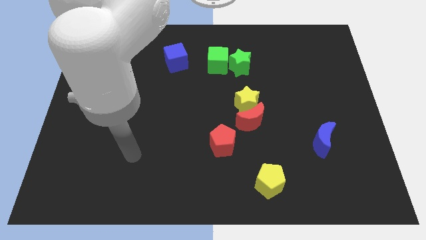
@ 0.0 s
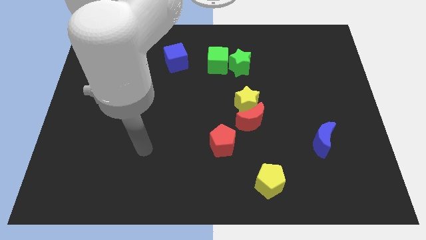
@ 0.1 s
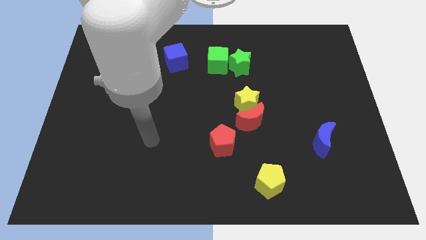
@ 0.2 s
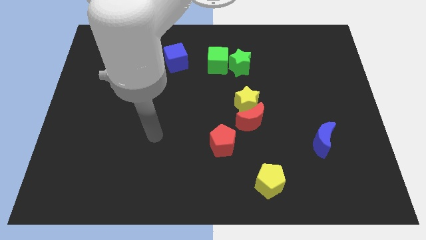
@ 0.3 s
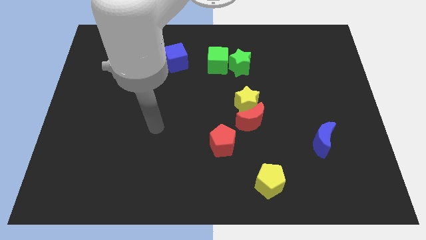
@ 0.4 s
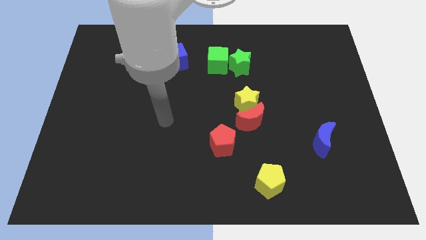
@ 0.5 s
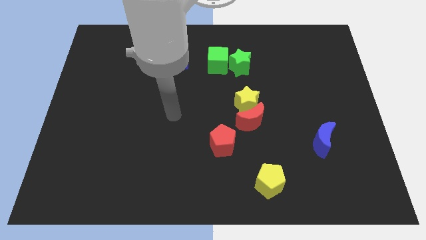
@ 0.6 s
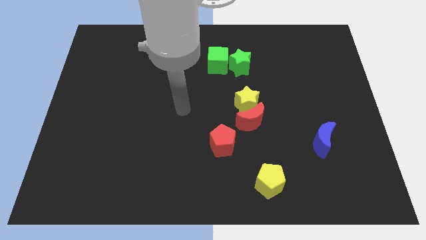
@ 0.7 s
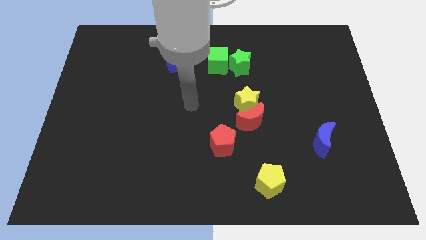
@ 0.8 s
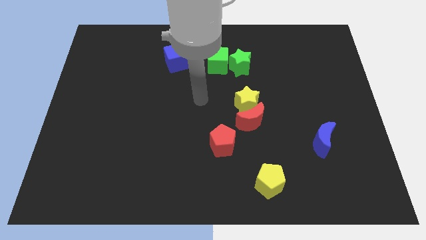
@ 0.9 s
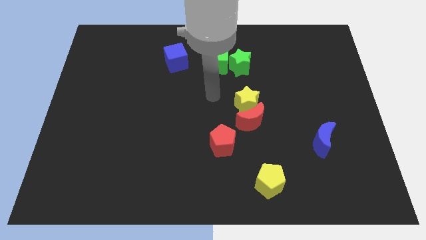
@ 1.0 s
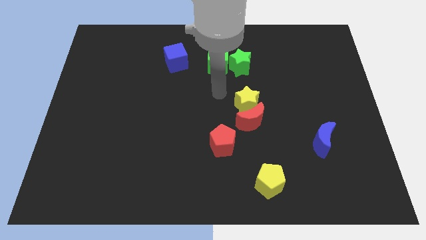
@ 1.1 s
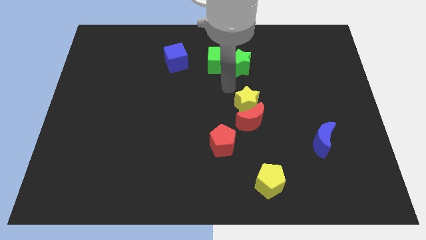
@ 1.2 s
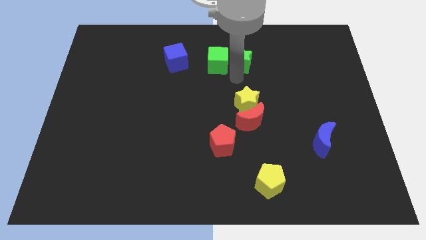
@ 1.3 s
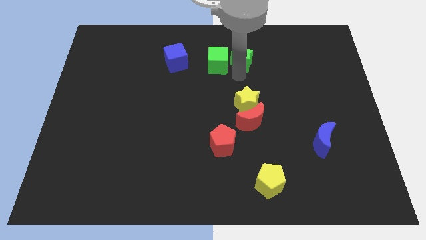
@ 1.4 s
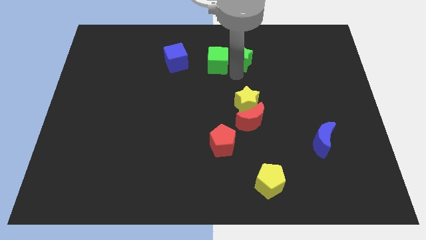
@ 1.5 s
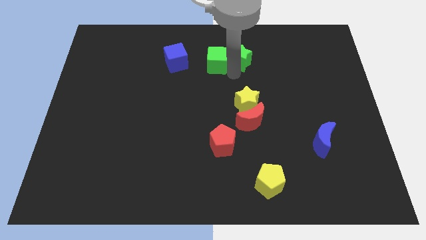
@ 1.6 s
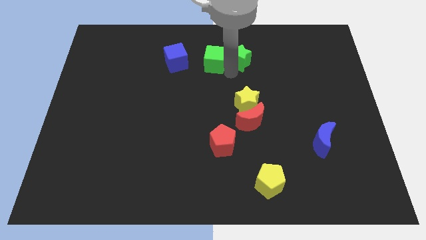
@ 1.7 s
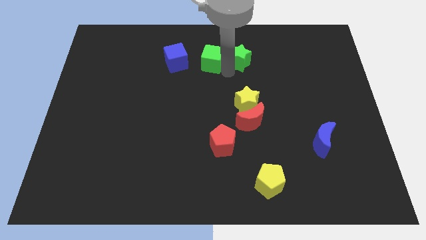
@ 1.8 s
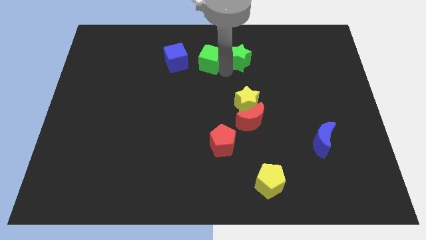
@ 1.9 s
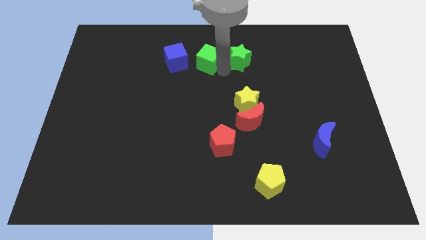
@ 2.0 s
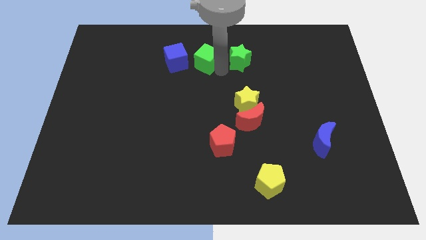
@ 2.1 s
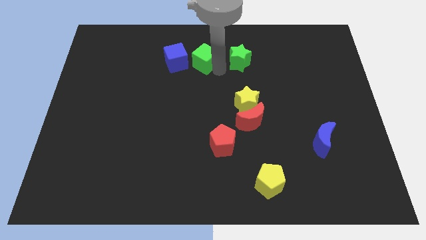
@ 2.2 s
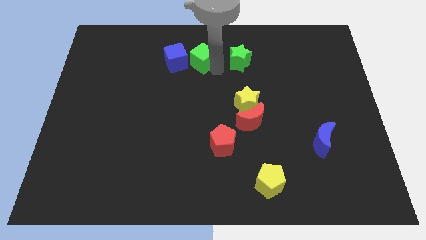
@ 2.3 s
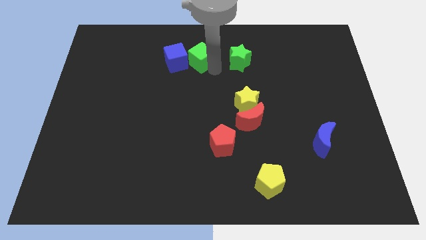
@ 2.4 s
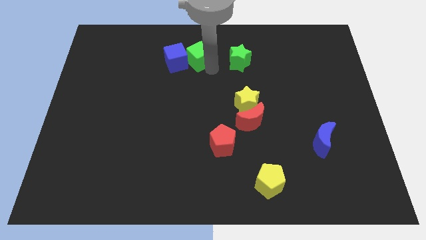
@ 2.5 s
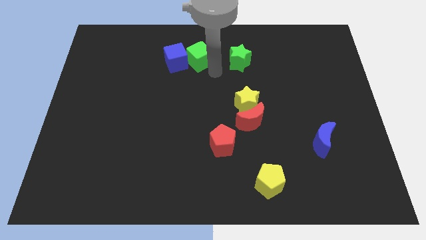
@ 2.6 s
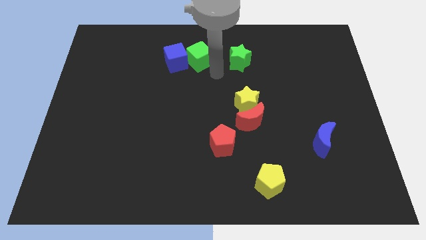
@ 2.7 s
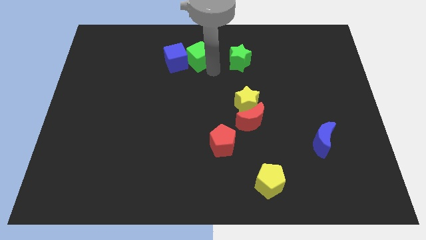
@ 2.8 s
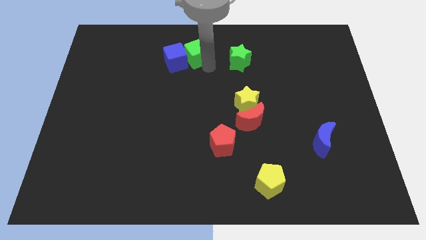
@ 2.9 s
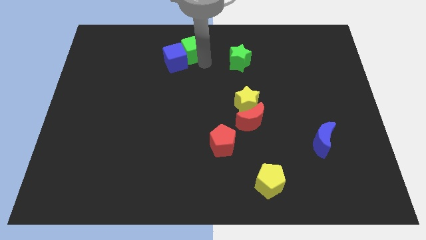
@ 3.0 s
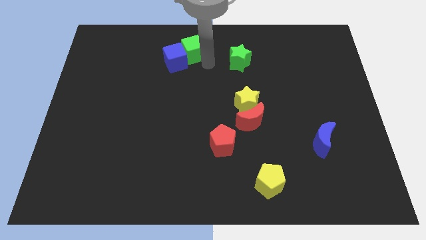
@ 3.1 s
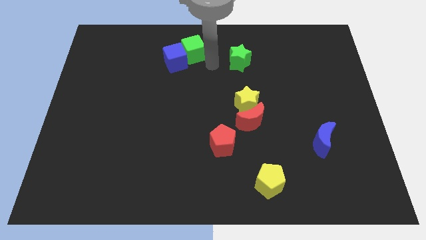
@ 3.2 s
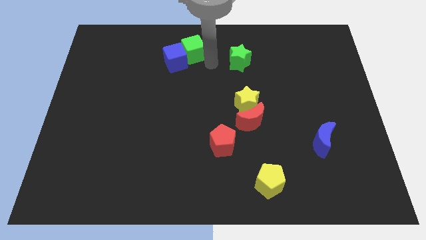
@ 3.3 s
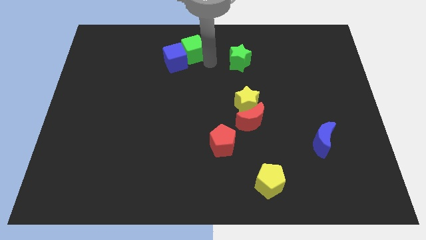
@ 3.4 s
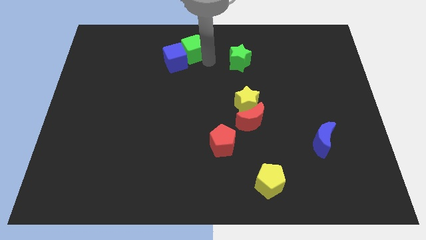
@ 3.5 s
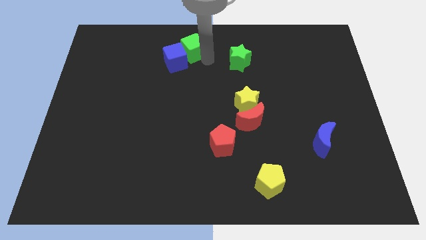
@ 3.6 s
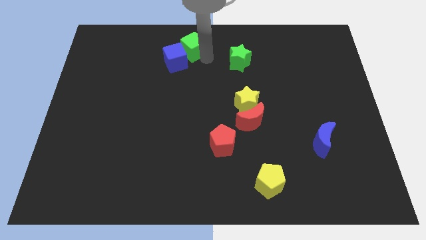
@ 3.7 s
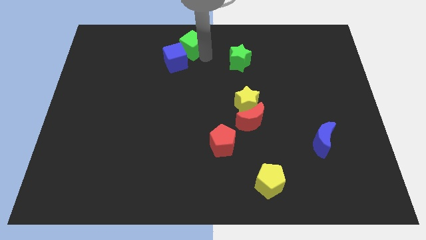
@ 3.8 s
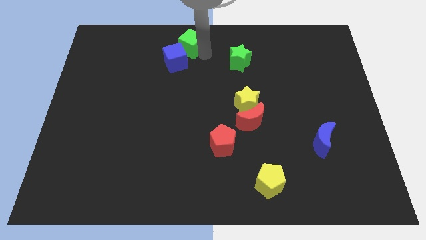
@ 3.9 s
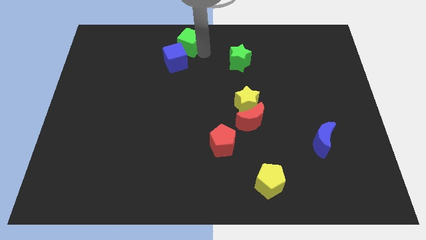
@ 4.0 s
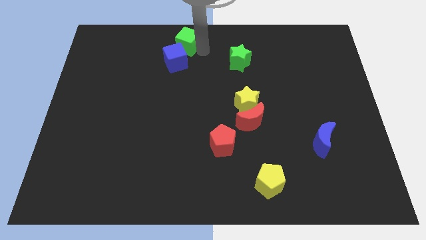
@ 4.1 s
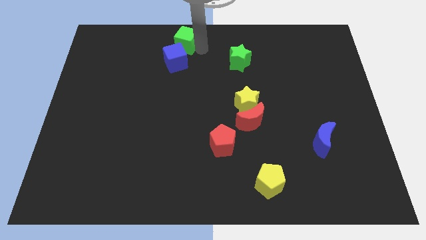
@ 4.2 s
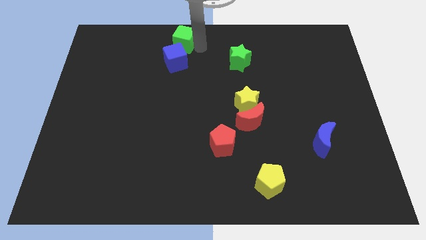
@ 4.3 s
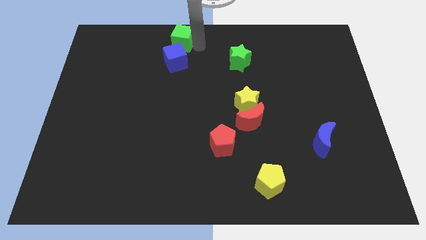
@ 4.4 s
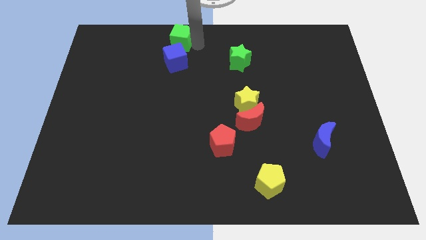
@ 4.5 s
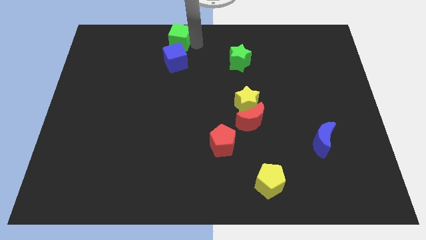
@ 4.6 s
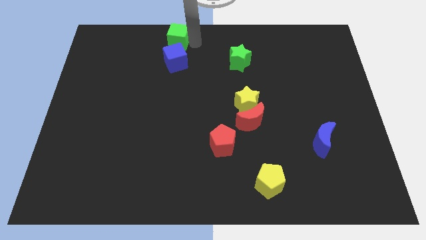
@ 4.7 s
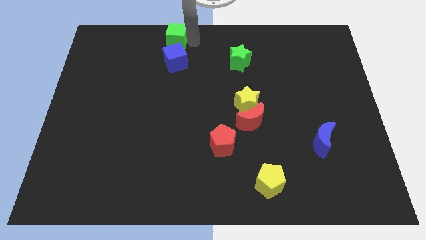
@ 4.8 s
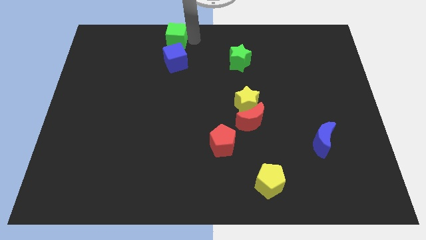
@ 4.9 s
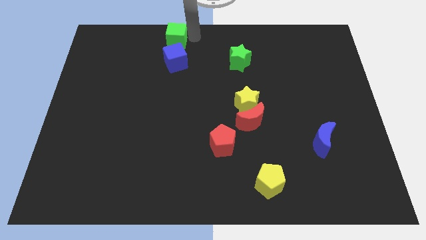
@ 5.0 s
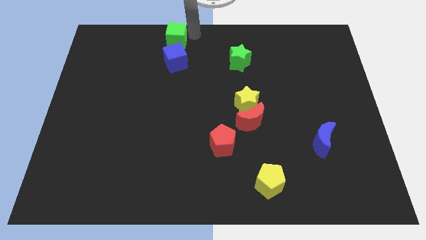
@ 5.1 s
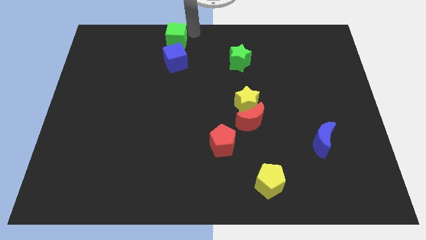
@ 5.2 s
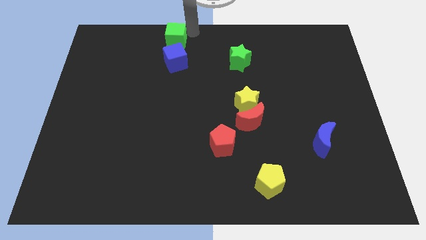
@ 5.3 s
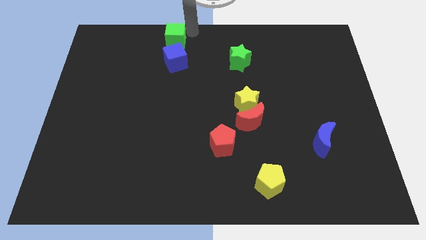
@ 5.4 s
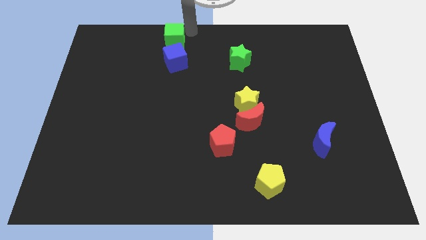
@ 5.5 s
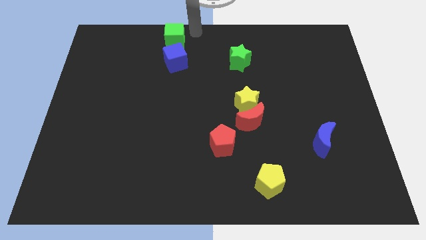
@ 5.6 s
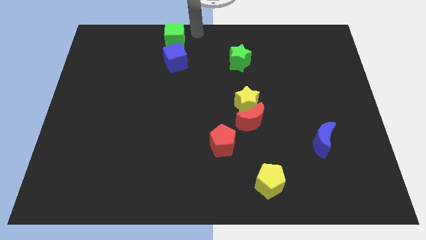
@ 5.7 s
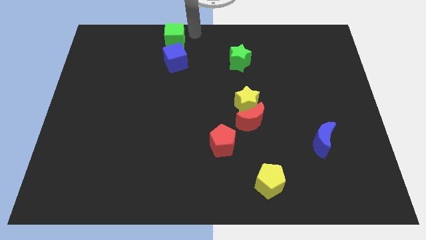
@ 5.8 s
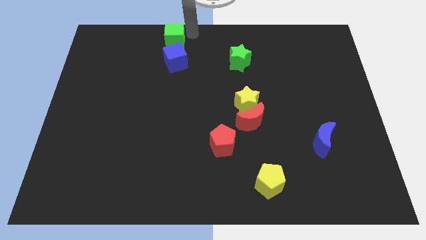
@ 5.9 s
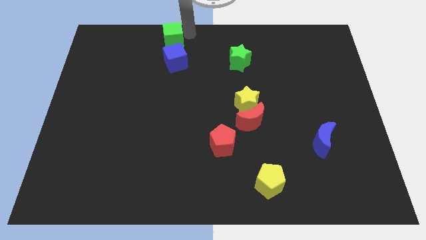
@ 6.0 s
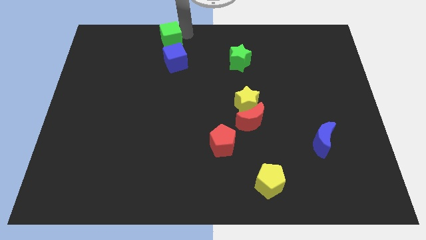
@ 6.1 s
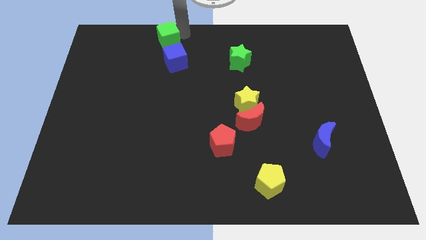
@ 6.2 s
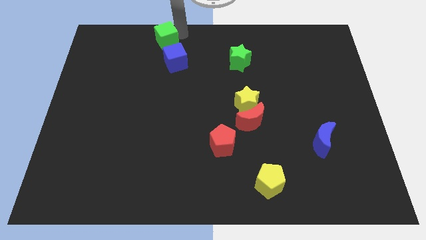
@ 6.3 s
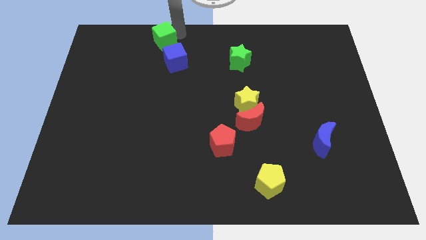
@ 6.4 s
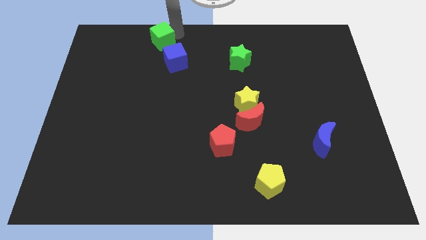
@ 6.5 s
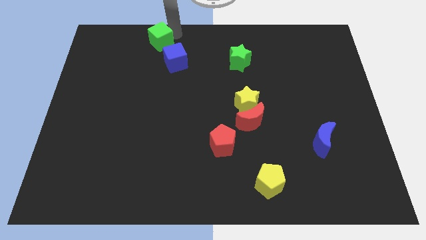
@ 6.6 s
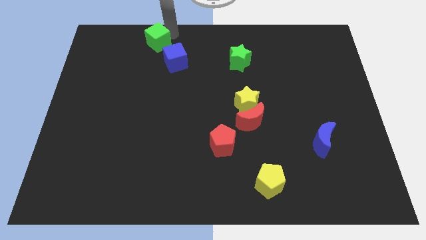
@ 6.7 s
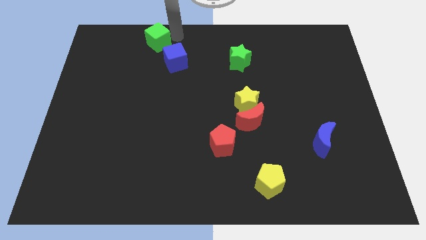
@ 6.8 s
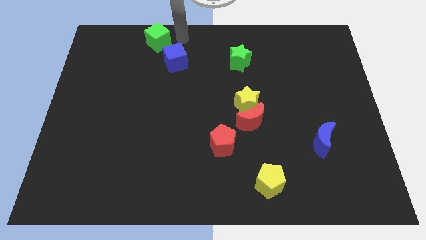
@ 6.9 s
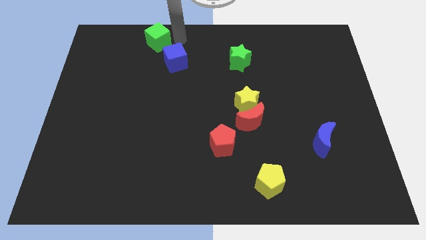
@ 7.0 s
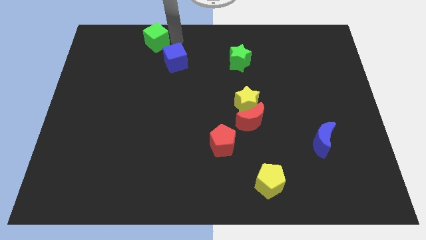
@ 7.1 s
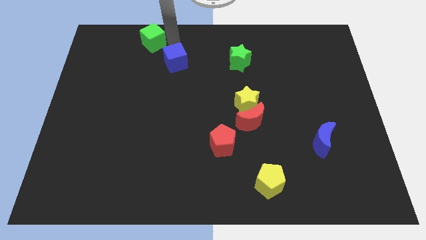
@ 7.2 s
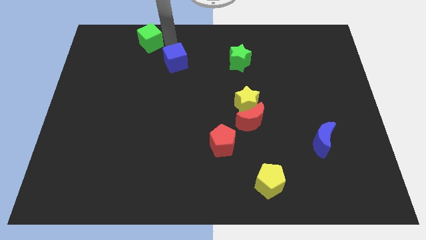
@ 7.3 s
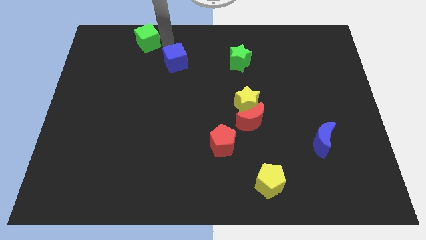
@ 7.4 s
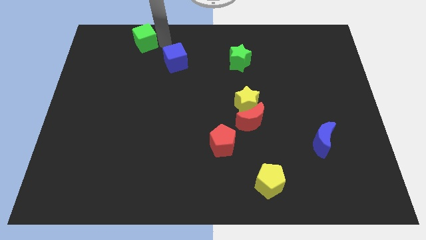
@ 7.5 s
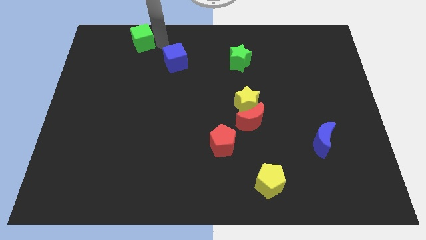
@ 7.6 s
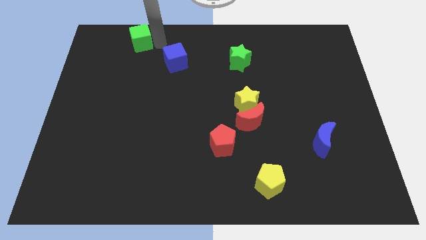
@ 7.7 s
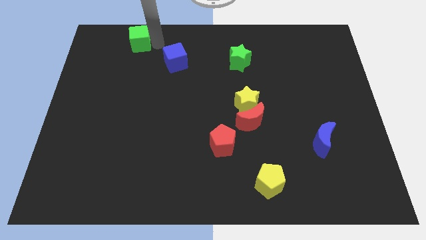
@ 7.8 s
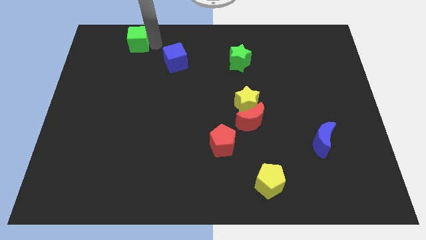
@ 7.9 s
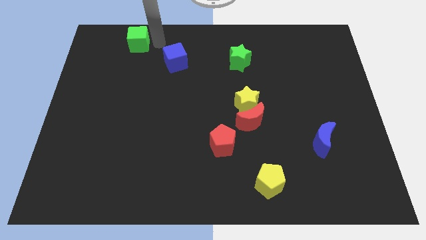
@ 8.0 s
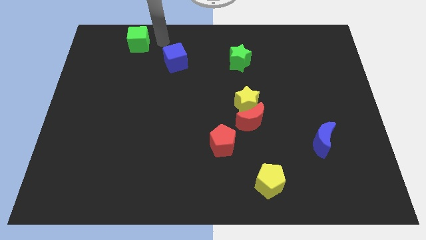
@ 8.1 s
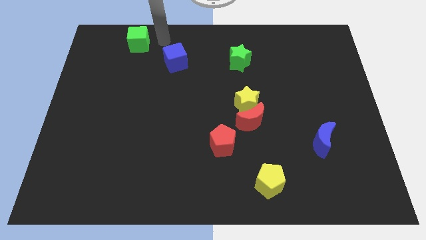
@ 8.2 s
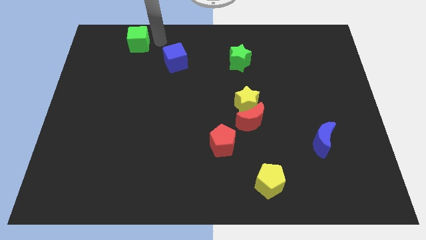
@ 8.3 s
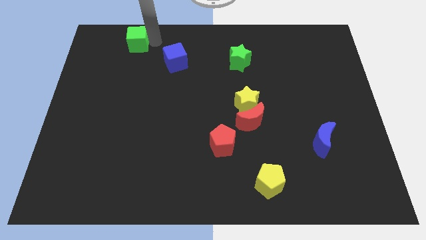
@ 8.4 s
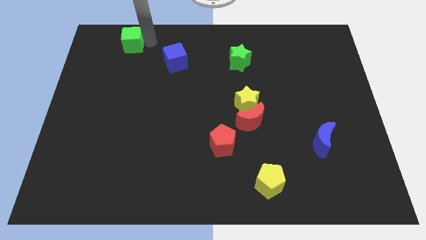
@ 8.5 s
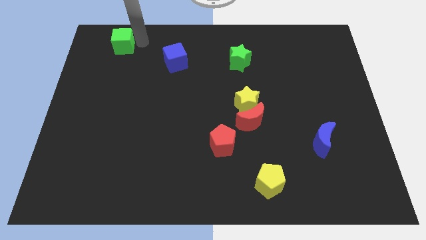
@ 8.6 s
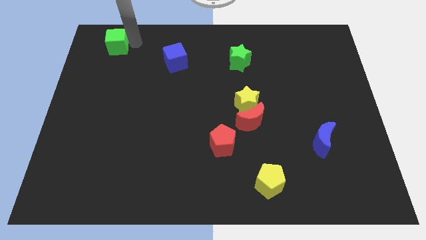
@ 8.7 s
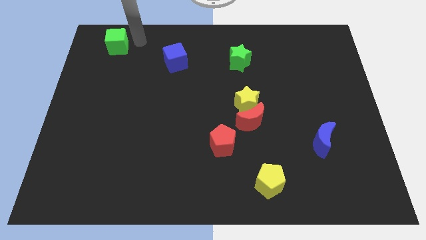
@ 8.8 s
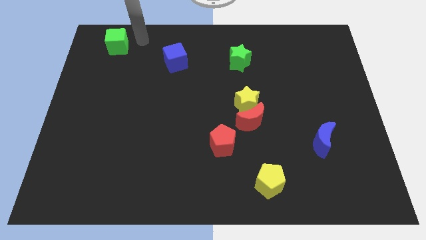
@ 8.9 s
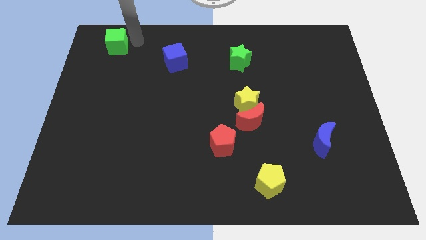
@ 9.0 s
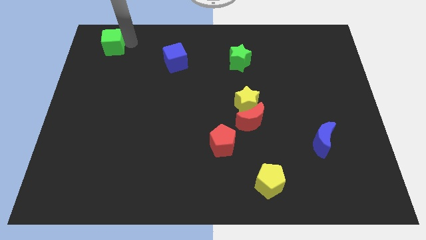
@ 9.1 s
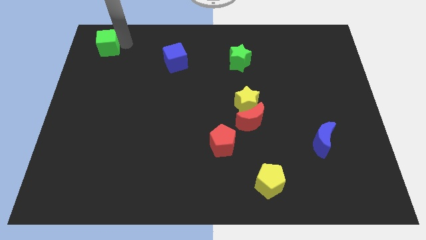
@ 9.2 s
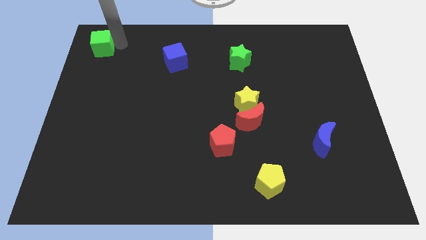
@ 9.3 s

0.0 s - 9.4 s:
push the green cube to the top left
